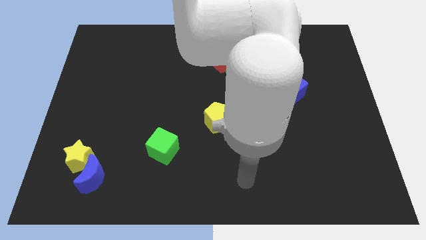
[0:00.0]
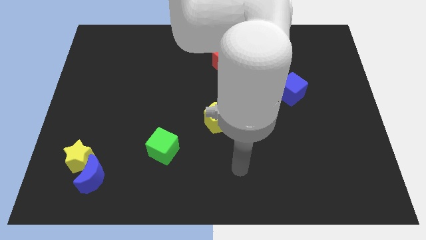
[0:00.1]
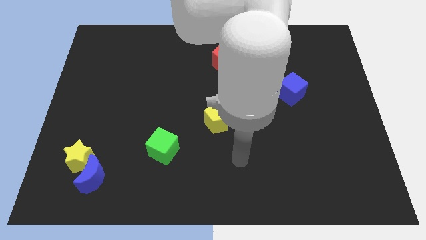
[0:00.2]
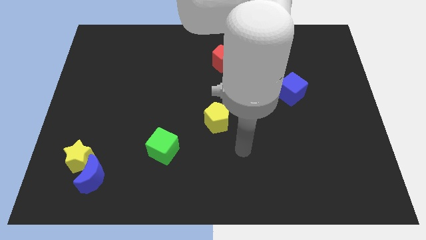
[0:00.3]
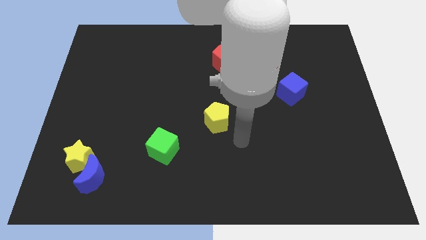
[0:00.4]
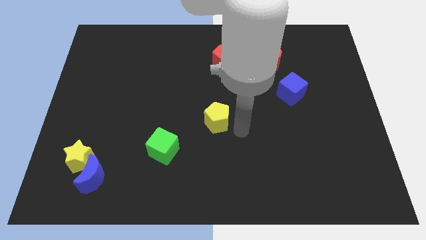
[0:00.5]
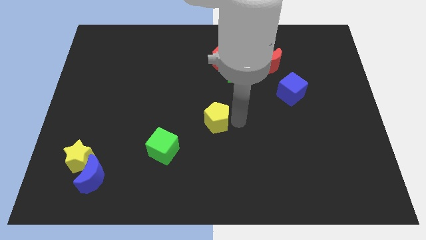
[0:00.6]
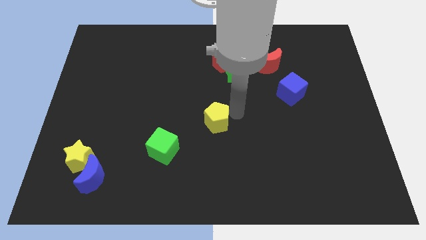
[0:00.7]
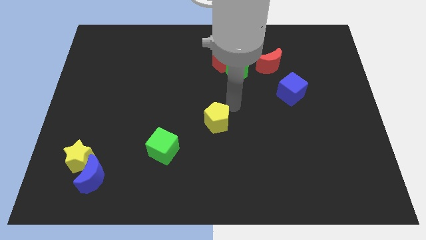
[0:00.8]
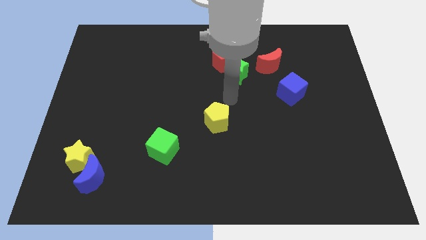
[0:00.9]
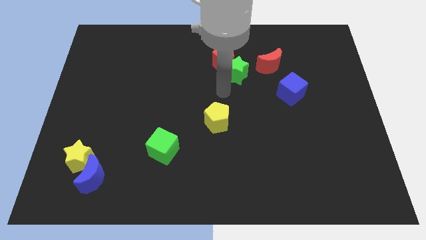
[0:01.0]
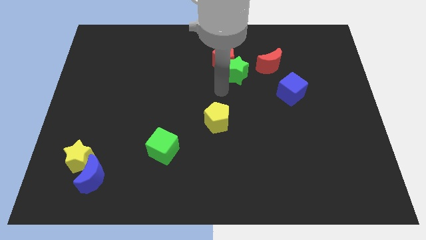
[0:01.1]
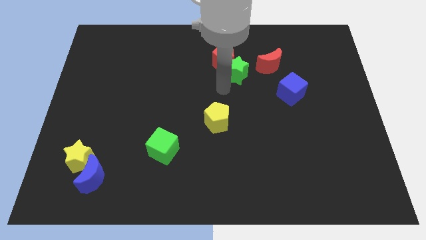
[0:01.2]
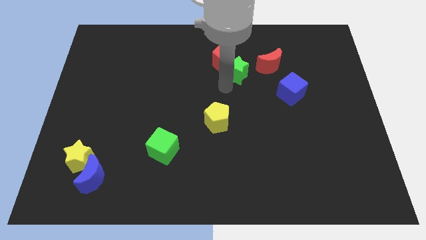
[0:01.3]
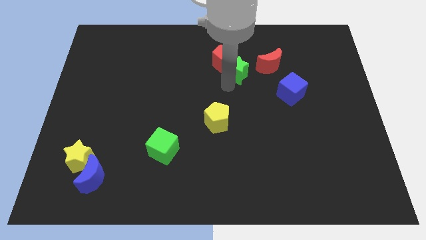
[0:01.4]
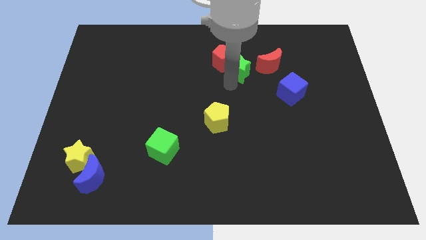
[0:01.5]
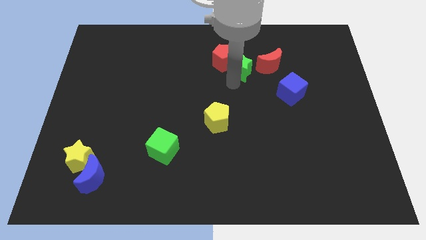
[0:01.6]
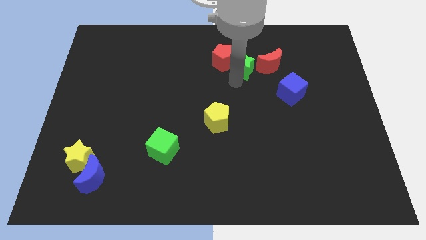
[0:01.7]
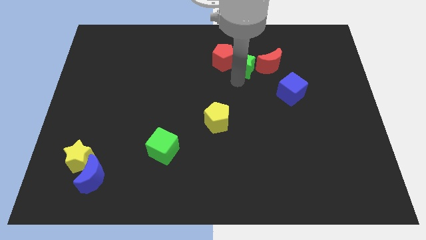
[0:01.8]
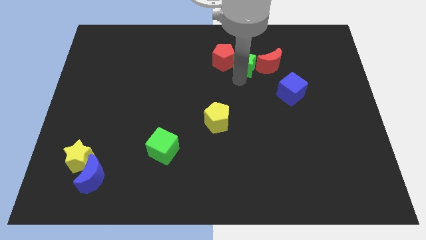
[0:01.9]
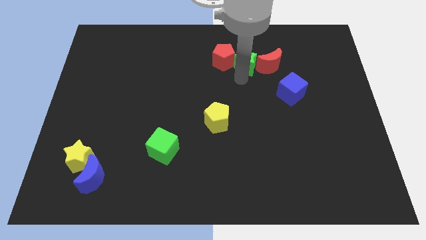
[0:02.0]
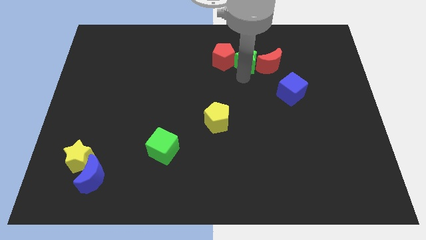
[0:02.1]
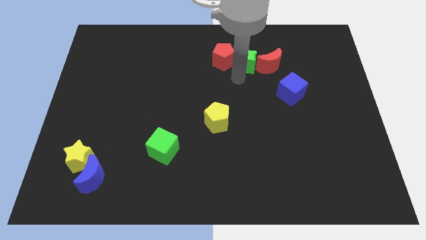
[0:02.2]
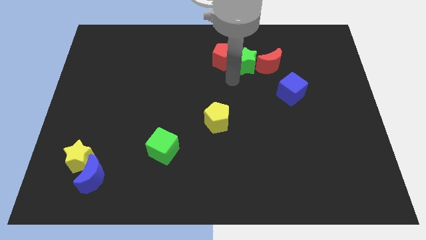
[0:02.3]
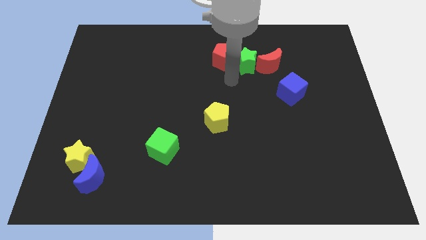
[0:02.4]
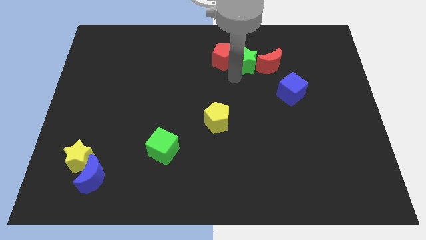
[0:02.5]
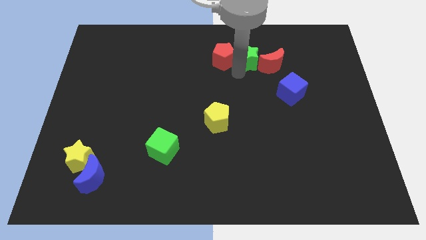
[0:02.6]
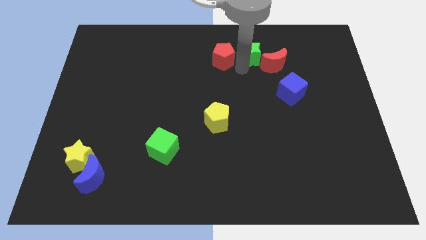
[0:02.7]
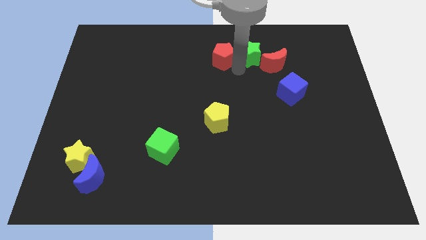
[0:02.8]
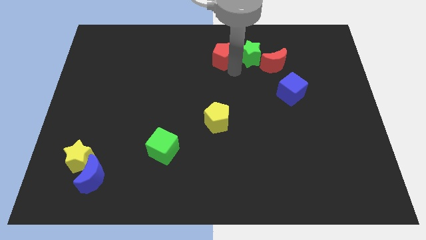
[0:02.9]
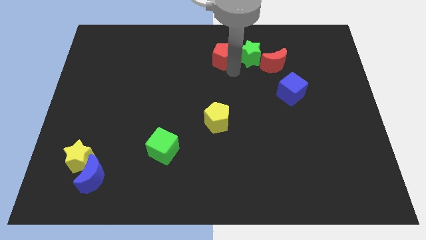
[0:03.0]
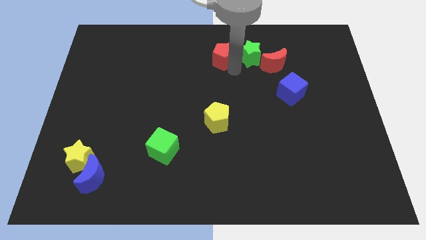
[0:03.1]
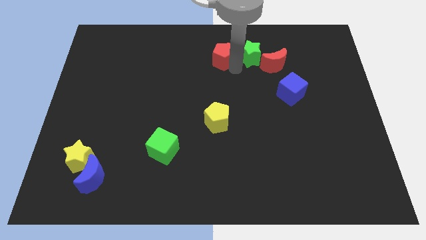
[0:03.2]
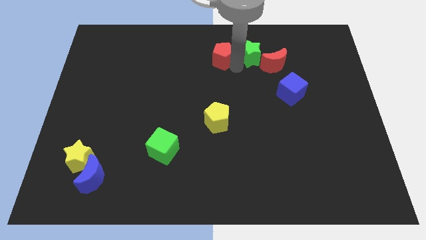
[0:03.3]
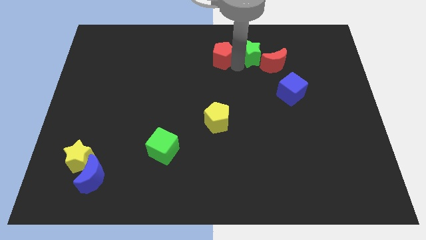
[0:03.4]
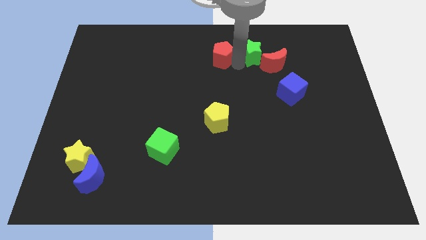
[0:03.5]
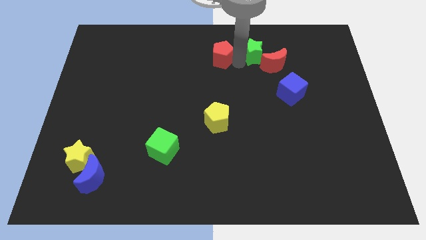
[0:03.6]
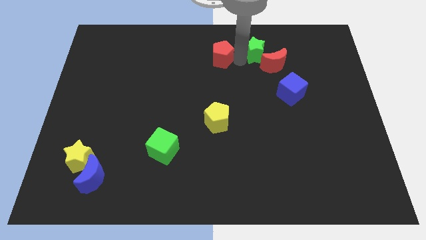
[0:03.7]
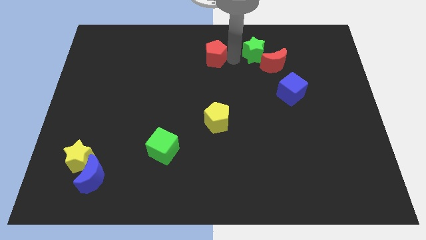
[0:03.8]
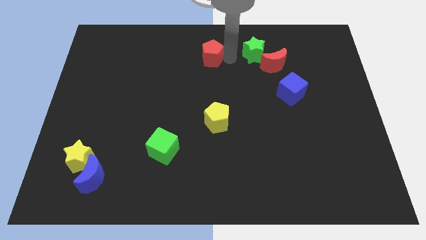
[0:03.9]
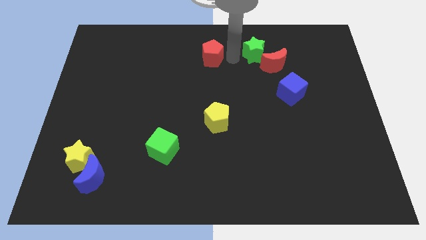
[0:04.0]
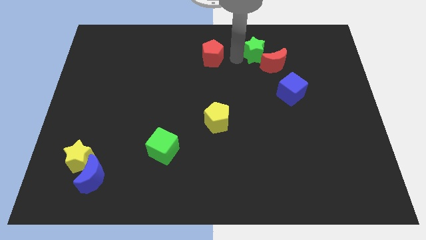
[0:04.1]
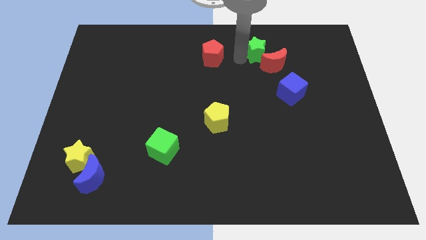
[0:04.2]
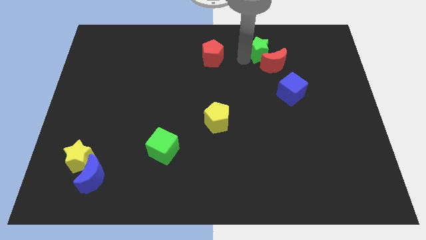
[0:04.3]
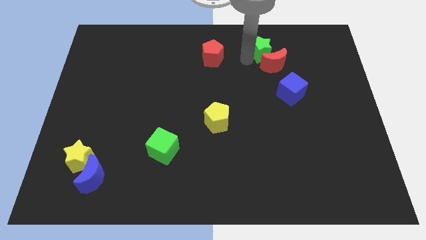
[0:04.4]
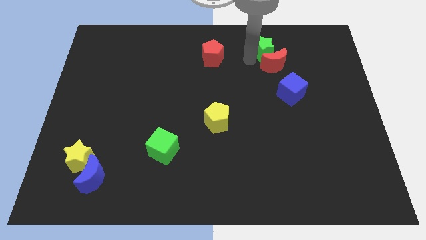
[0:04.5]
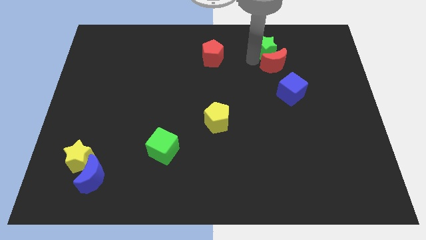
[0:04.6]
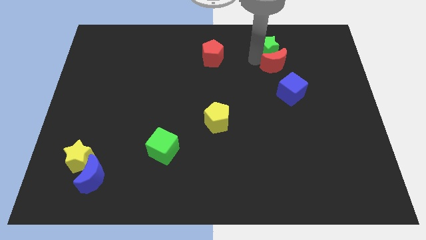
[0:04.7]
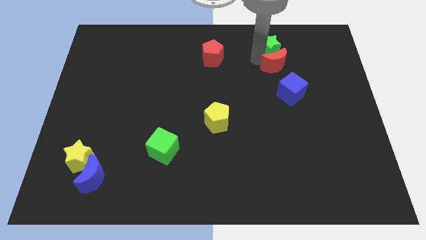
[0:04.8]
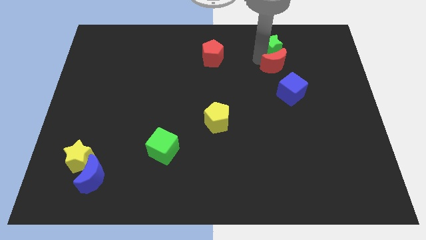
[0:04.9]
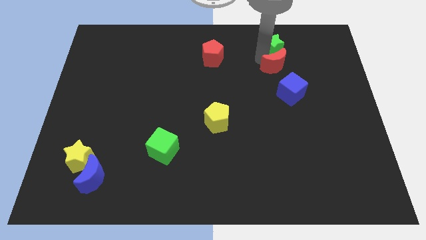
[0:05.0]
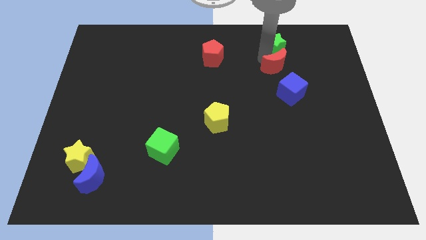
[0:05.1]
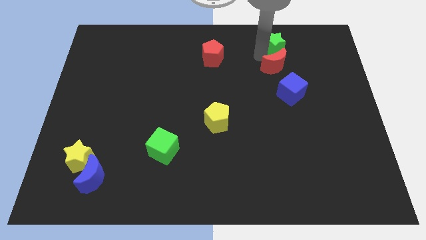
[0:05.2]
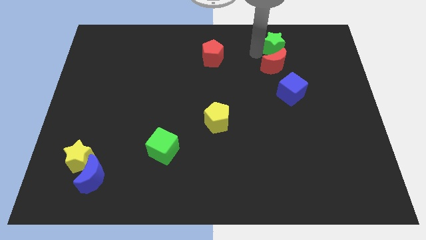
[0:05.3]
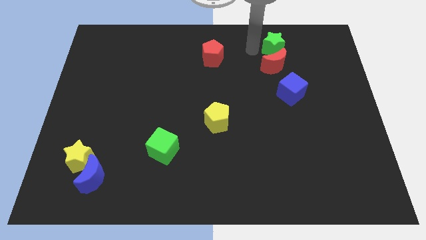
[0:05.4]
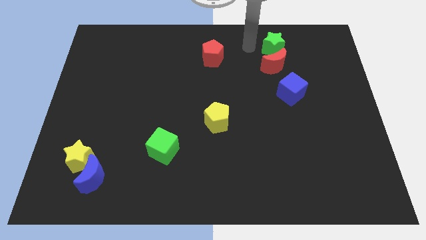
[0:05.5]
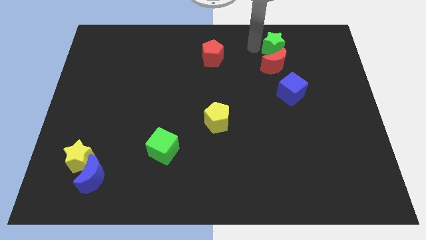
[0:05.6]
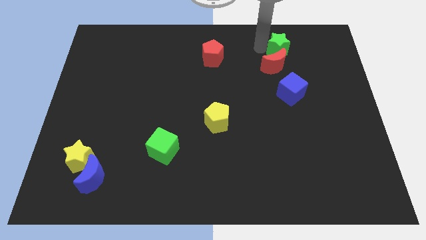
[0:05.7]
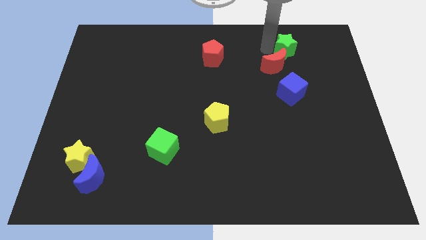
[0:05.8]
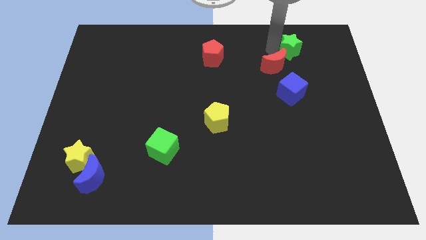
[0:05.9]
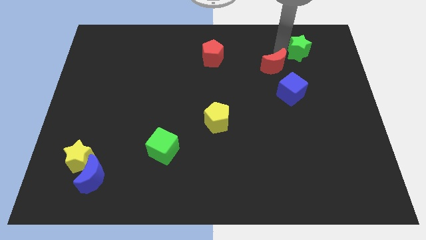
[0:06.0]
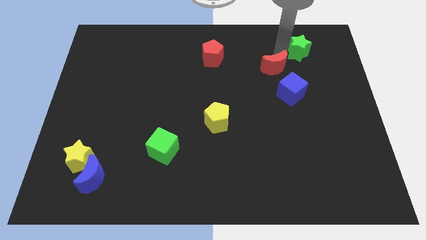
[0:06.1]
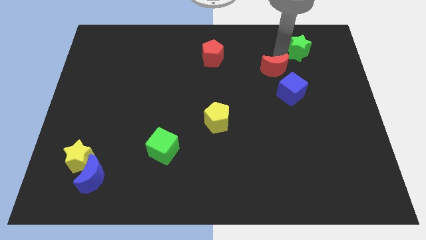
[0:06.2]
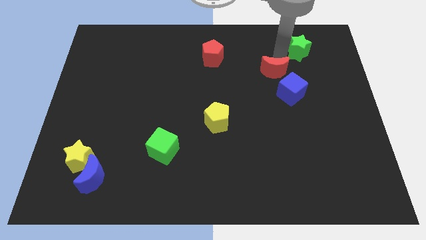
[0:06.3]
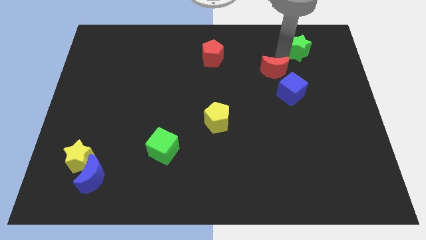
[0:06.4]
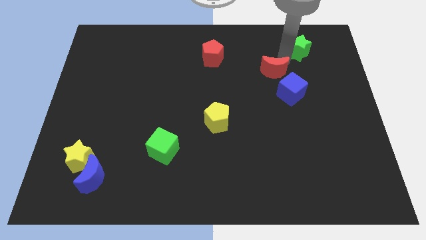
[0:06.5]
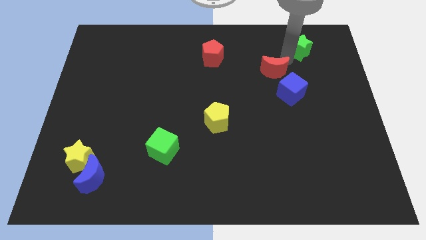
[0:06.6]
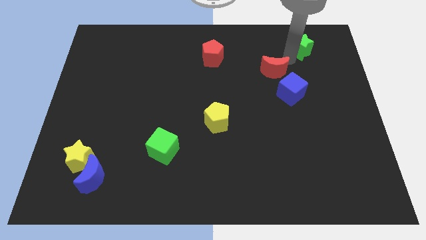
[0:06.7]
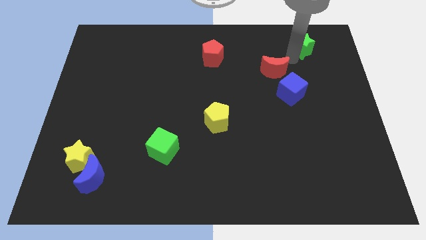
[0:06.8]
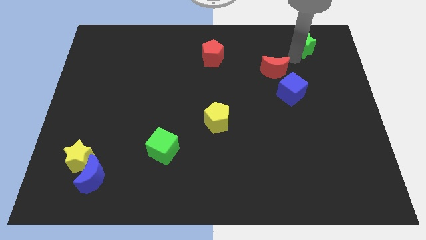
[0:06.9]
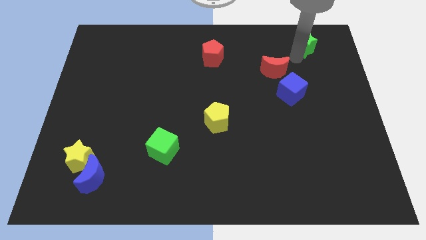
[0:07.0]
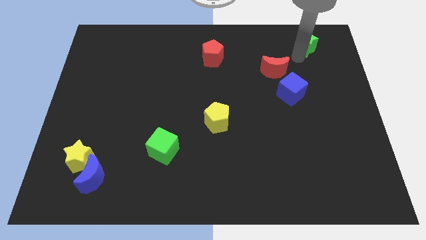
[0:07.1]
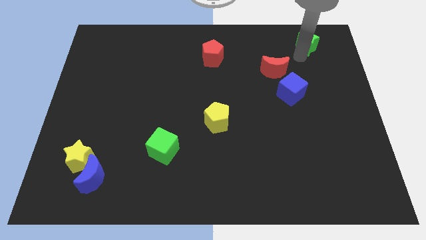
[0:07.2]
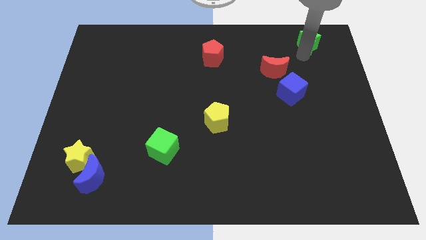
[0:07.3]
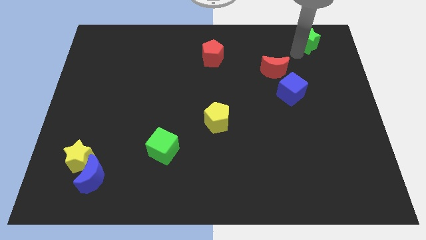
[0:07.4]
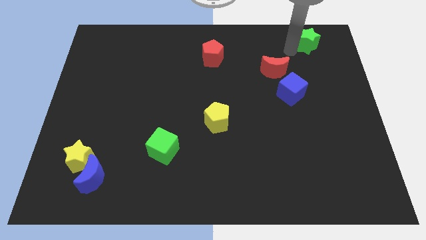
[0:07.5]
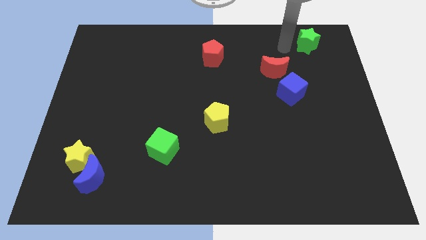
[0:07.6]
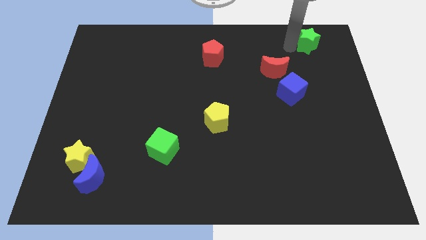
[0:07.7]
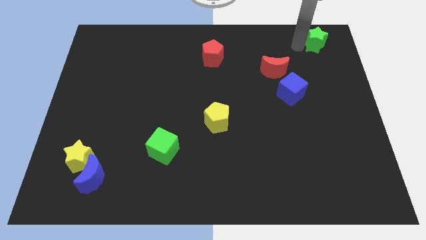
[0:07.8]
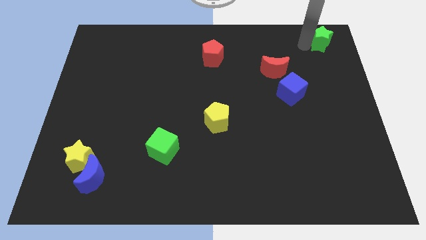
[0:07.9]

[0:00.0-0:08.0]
put the green star to the top right corner
